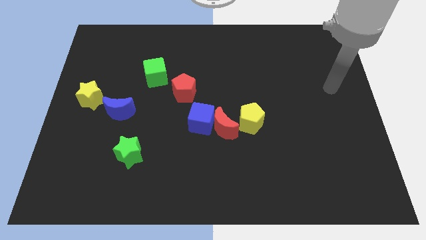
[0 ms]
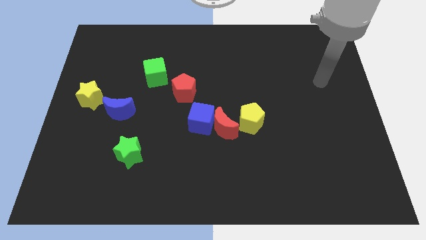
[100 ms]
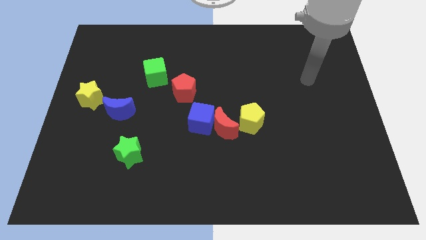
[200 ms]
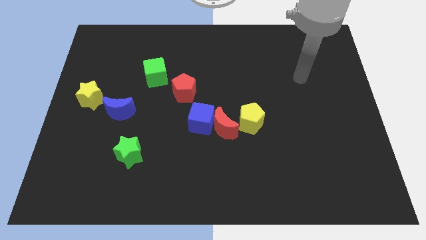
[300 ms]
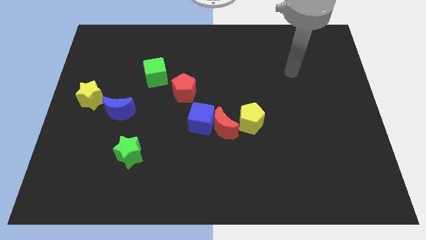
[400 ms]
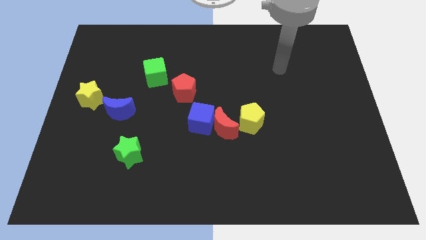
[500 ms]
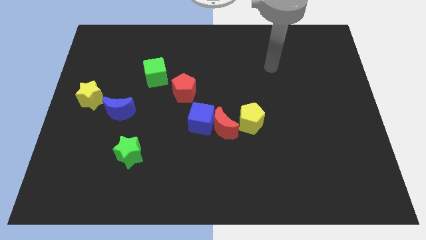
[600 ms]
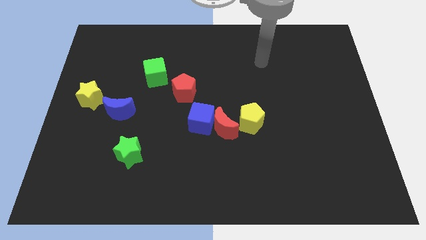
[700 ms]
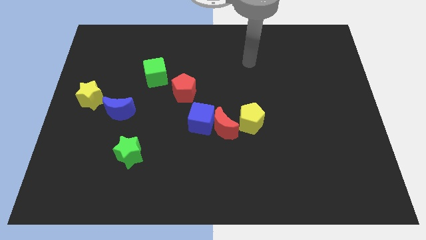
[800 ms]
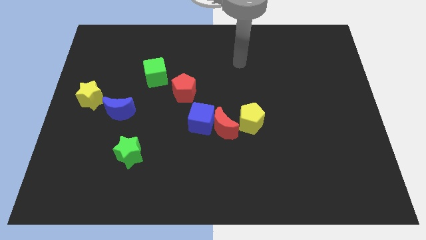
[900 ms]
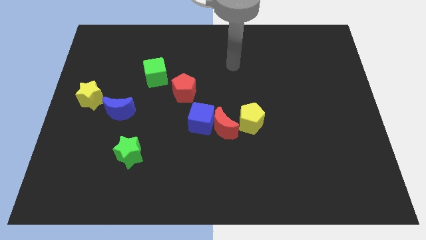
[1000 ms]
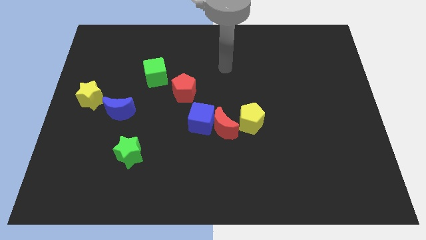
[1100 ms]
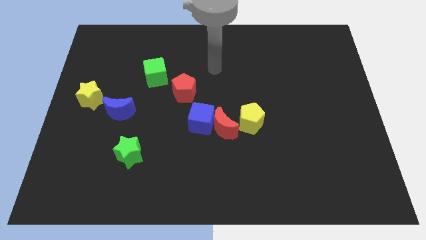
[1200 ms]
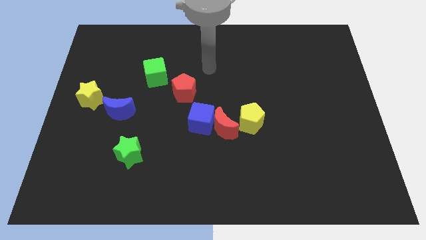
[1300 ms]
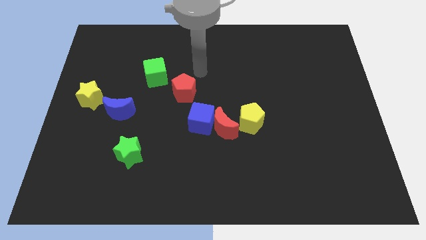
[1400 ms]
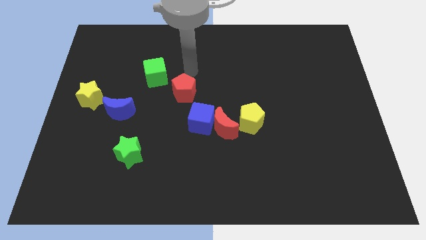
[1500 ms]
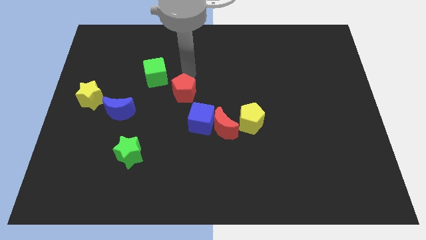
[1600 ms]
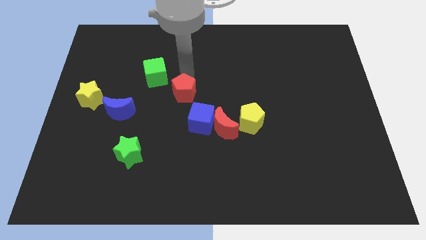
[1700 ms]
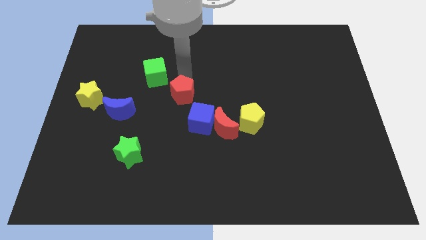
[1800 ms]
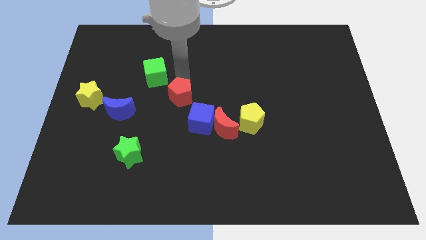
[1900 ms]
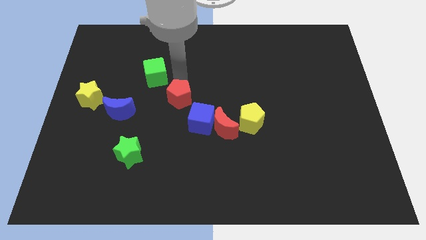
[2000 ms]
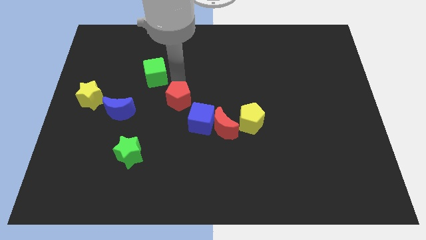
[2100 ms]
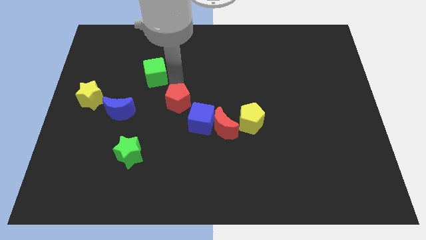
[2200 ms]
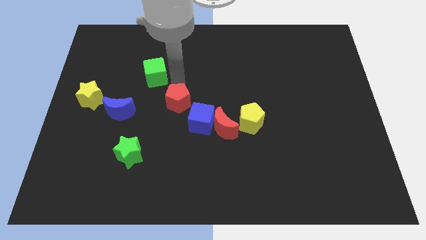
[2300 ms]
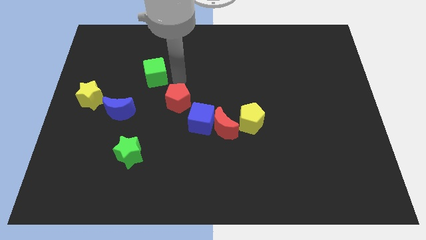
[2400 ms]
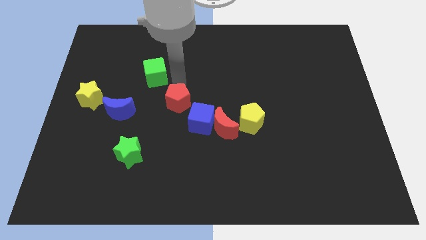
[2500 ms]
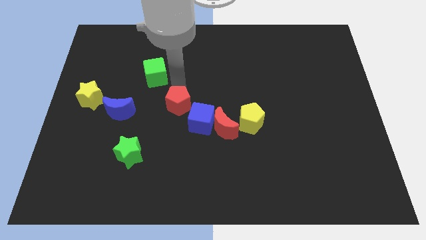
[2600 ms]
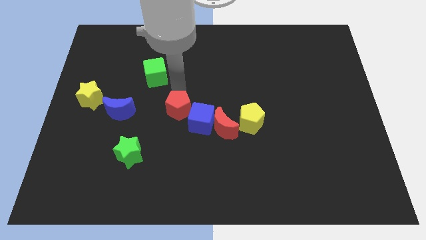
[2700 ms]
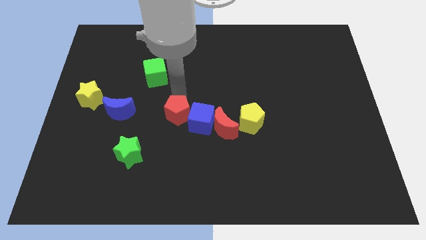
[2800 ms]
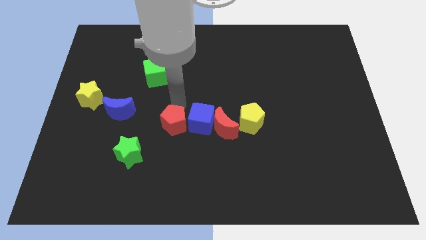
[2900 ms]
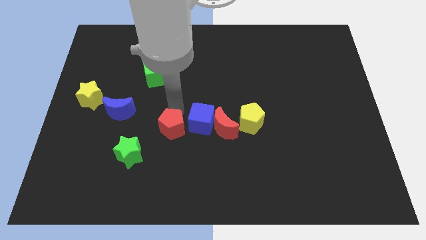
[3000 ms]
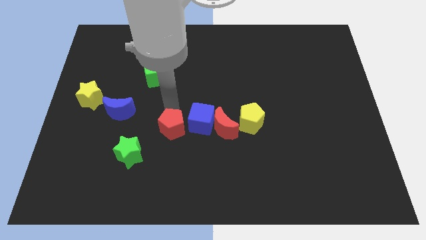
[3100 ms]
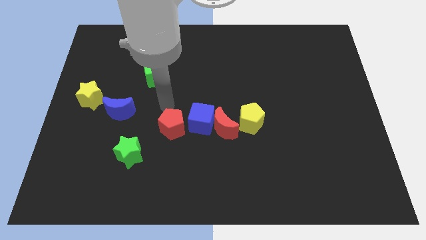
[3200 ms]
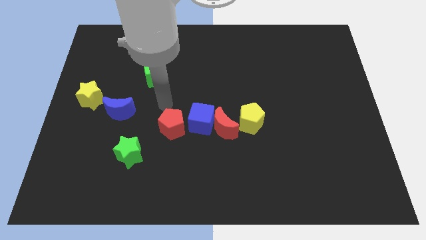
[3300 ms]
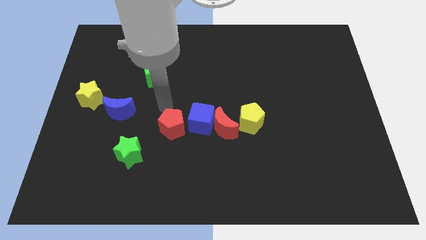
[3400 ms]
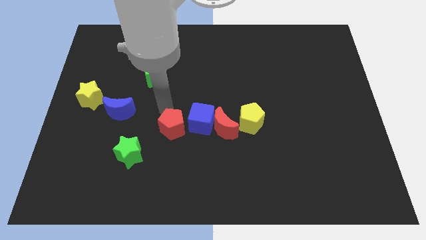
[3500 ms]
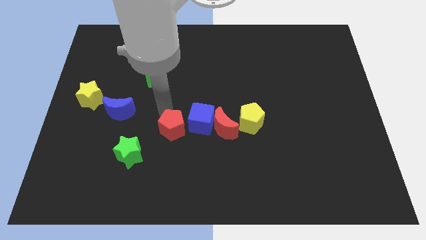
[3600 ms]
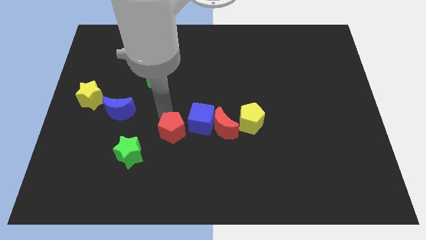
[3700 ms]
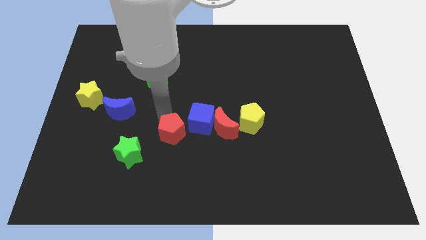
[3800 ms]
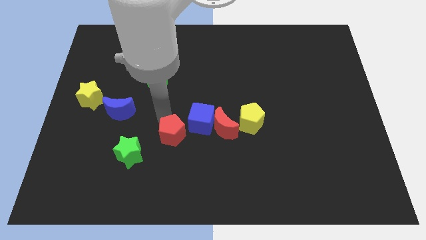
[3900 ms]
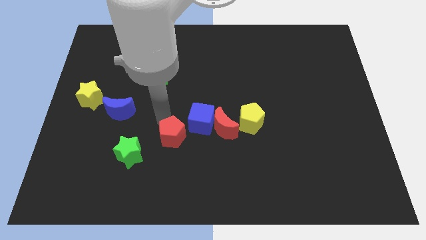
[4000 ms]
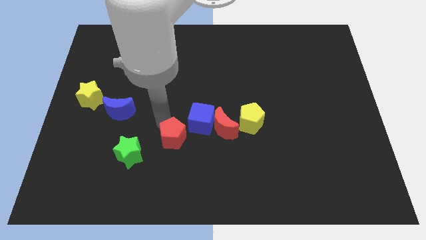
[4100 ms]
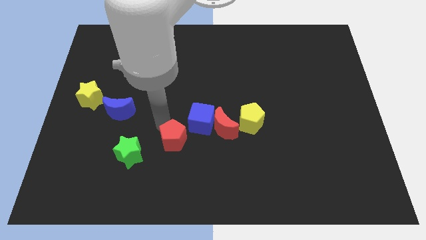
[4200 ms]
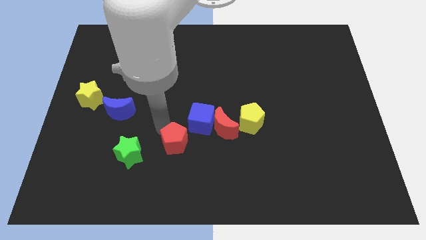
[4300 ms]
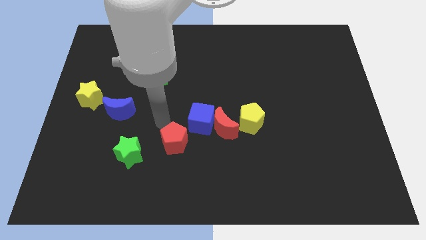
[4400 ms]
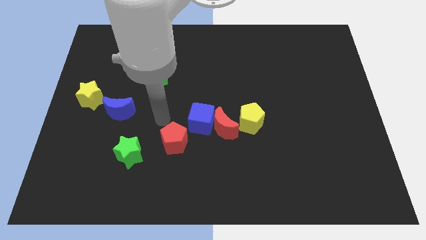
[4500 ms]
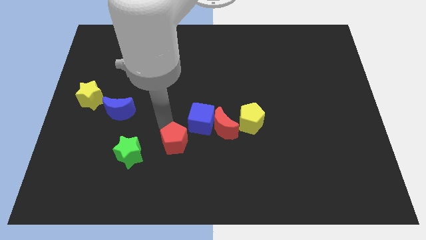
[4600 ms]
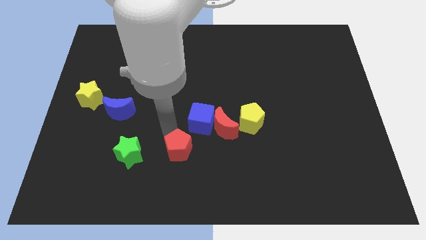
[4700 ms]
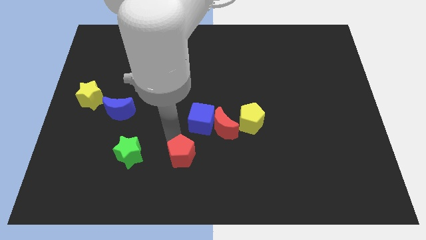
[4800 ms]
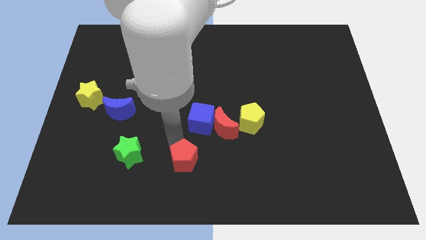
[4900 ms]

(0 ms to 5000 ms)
push the red pentagon to the bottom side

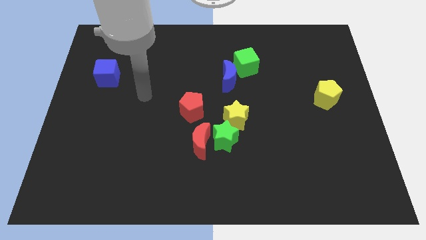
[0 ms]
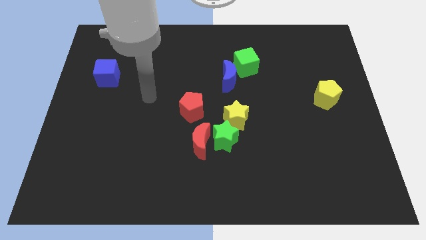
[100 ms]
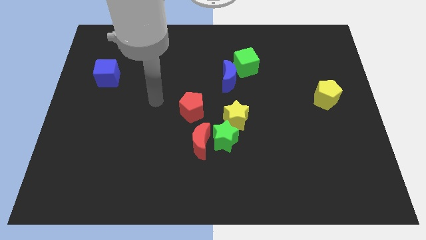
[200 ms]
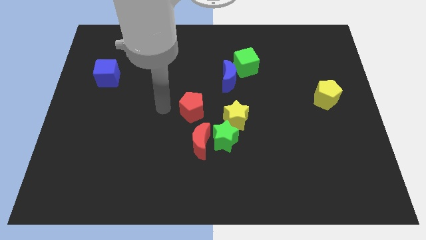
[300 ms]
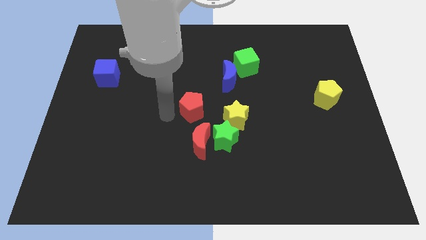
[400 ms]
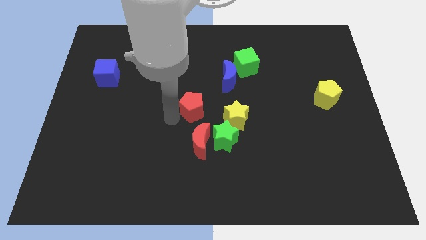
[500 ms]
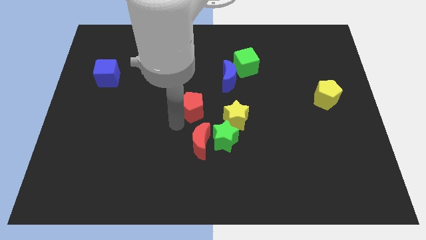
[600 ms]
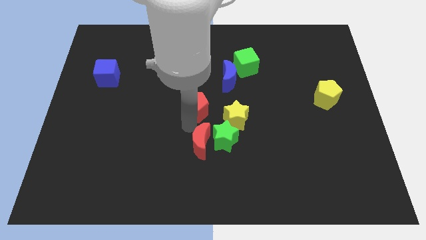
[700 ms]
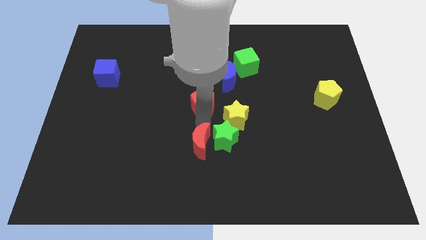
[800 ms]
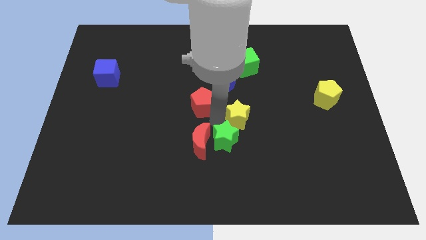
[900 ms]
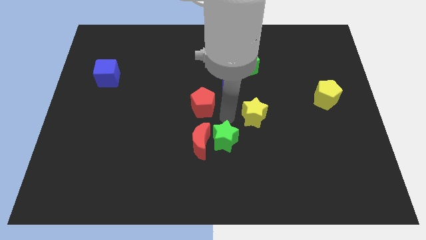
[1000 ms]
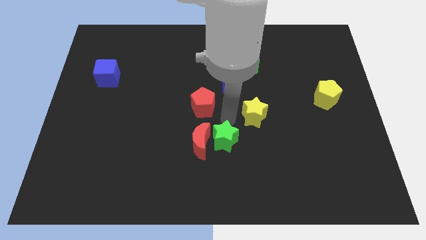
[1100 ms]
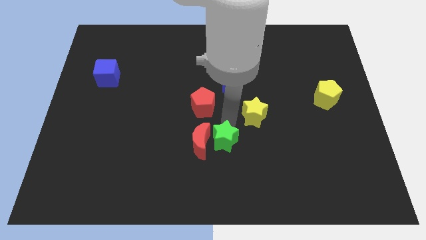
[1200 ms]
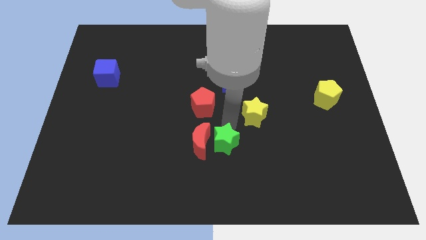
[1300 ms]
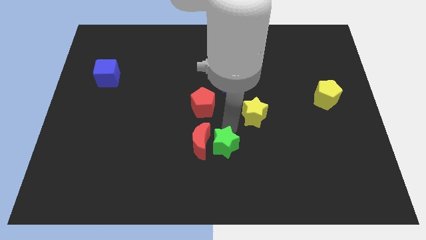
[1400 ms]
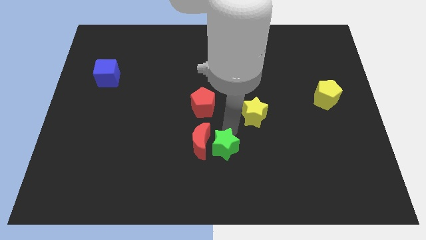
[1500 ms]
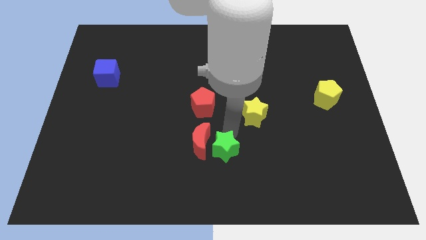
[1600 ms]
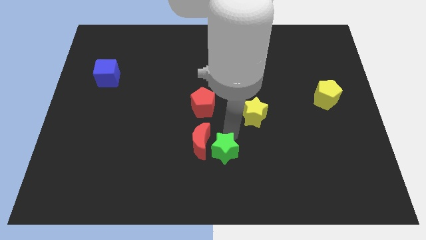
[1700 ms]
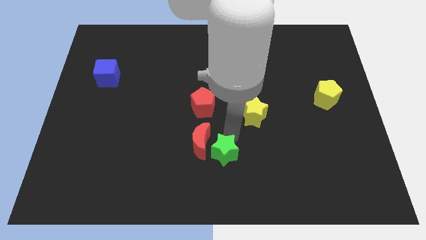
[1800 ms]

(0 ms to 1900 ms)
slide the green star to the bottom

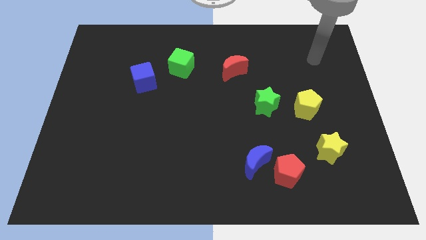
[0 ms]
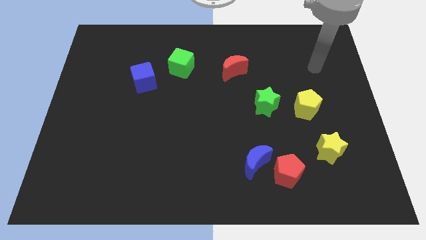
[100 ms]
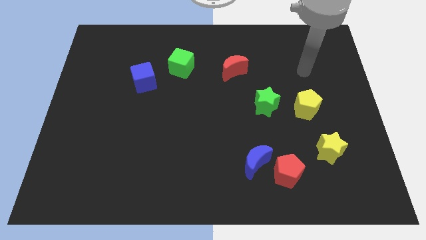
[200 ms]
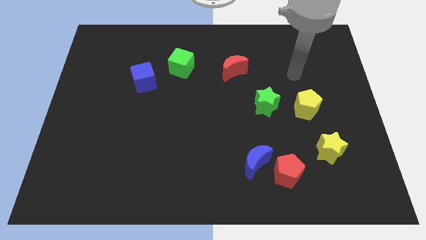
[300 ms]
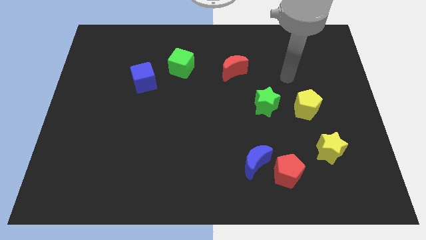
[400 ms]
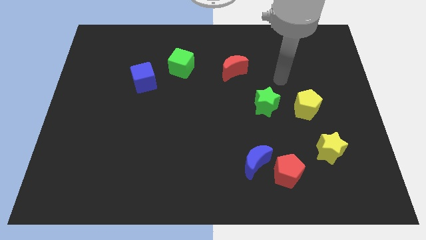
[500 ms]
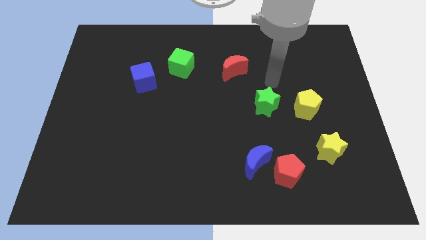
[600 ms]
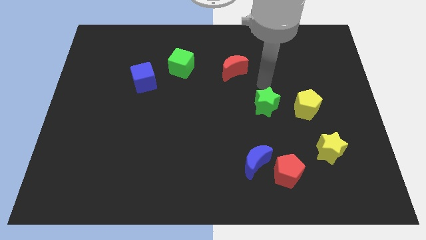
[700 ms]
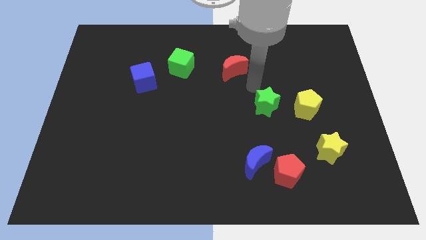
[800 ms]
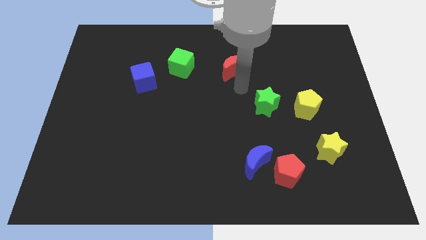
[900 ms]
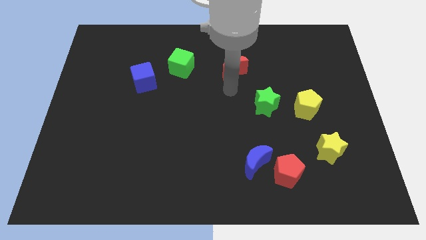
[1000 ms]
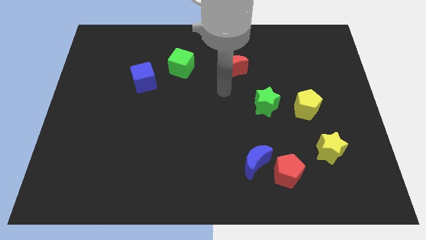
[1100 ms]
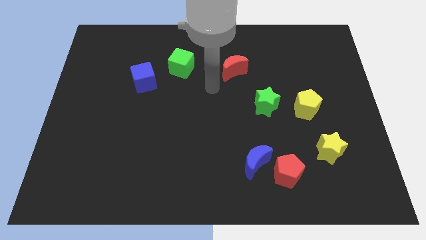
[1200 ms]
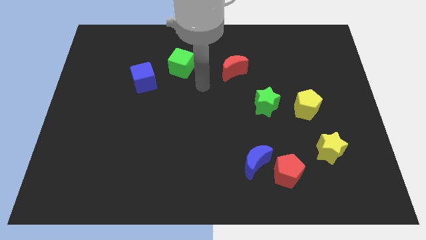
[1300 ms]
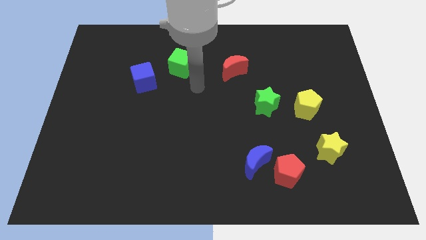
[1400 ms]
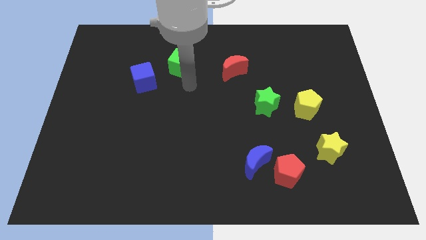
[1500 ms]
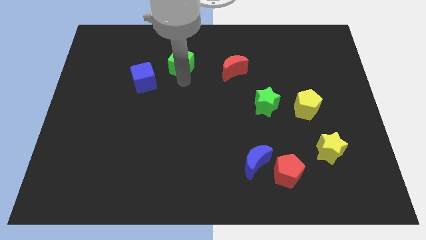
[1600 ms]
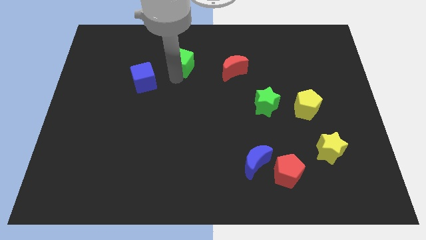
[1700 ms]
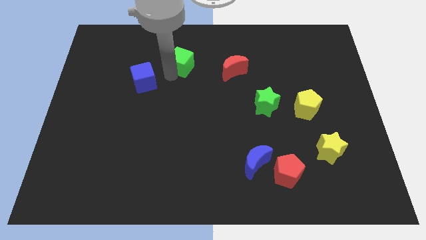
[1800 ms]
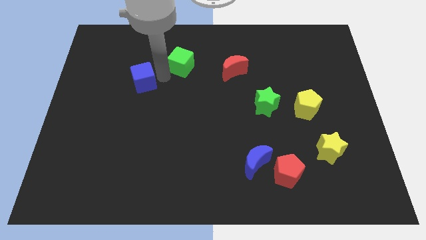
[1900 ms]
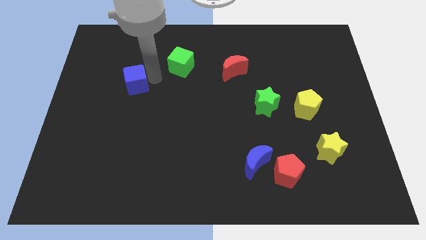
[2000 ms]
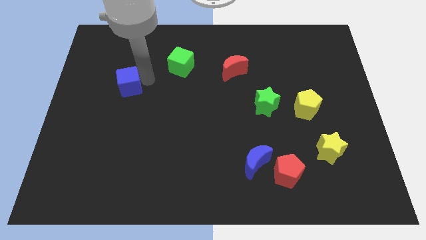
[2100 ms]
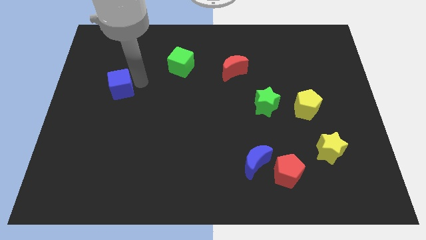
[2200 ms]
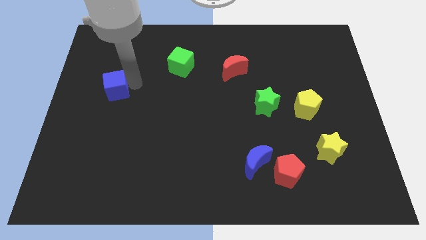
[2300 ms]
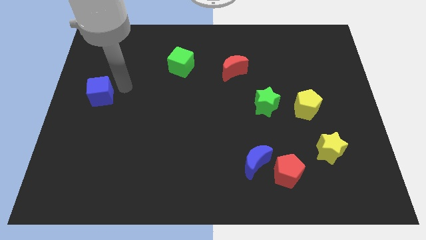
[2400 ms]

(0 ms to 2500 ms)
move the blue cube to the center left
